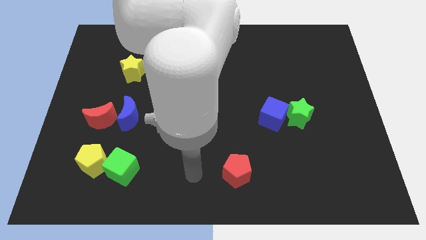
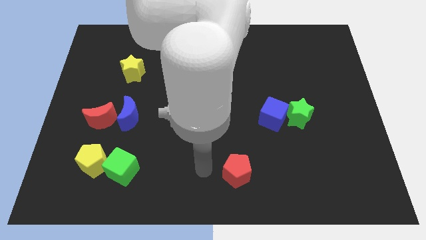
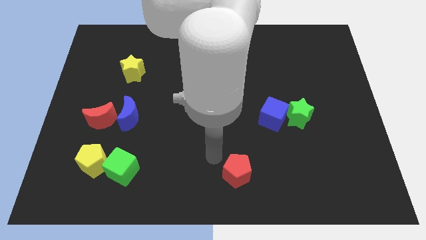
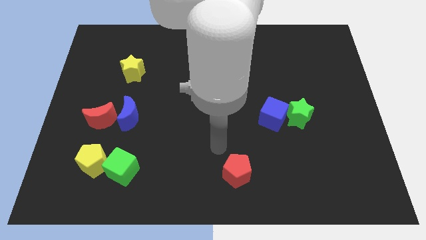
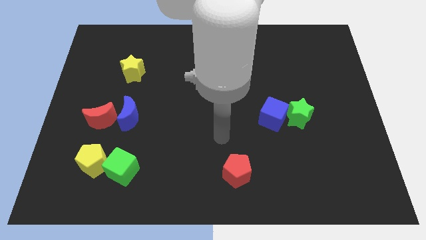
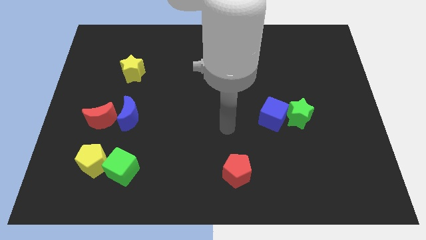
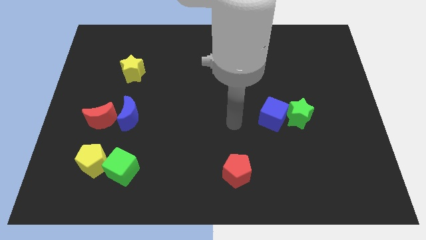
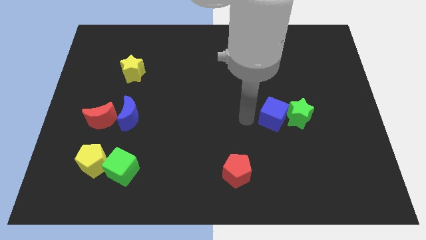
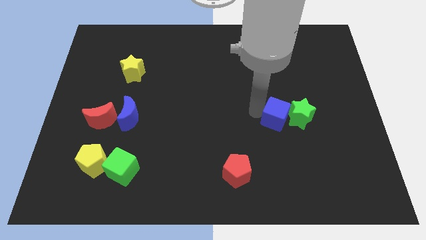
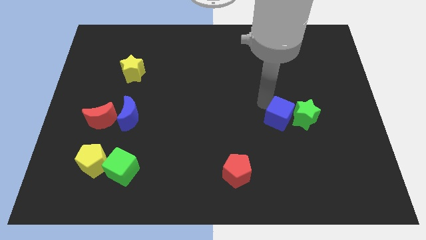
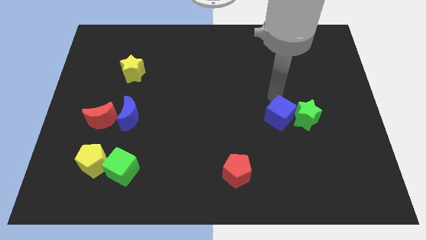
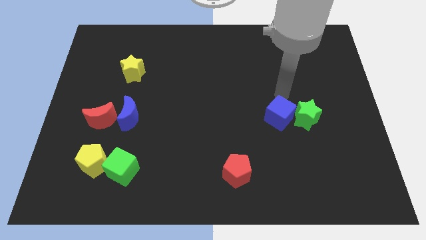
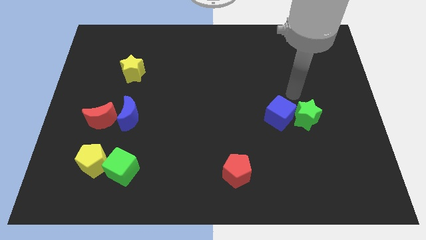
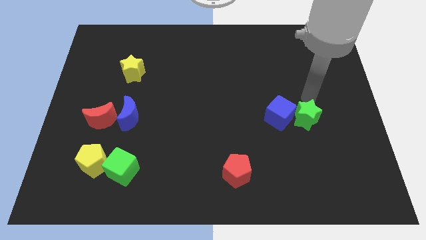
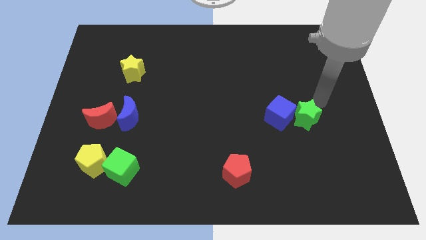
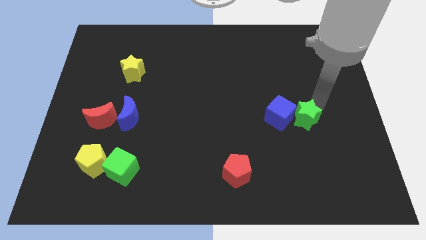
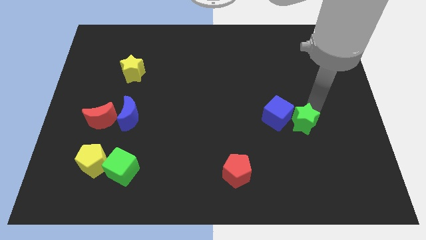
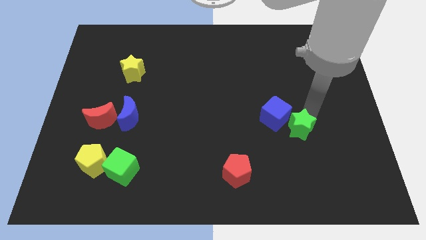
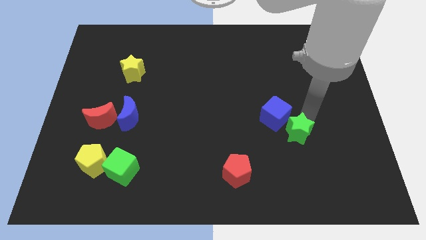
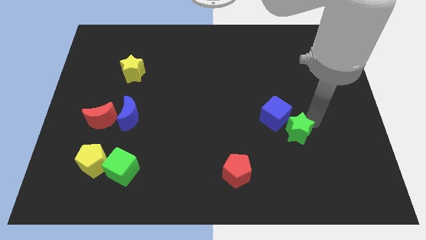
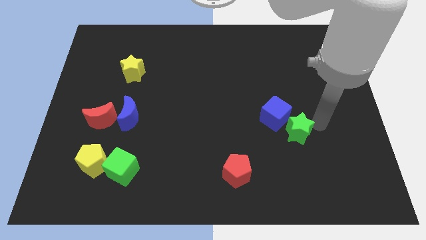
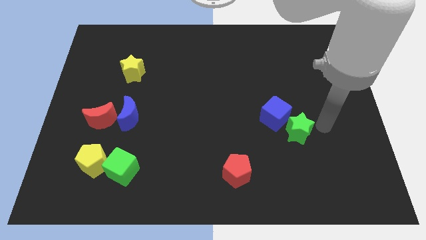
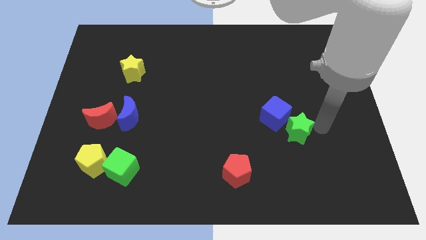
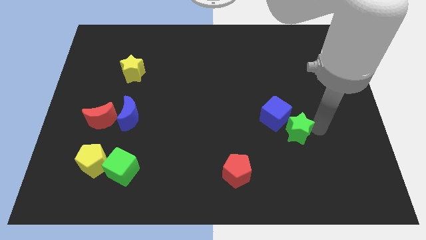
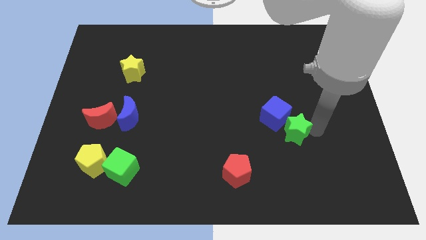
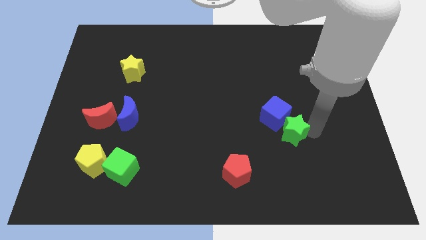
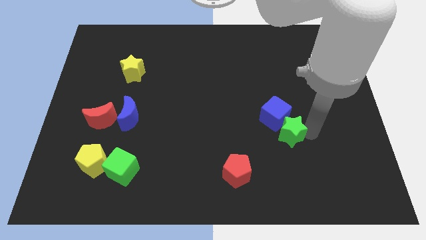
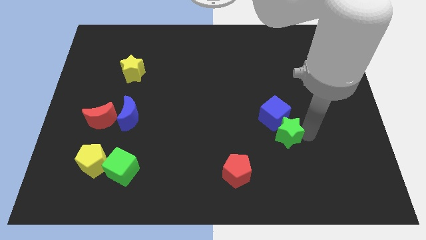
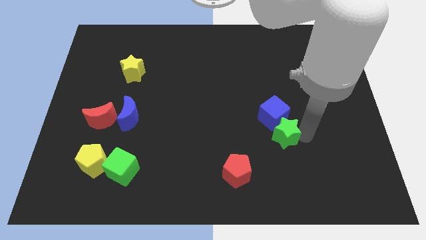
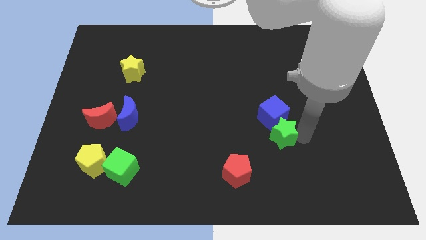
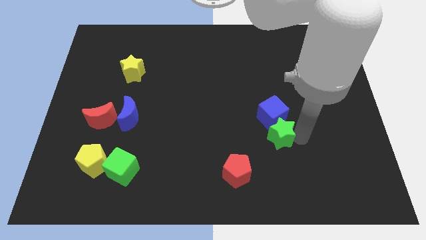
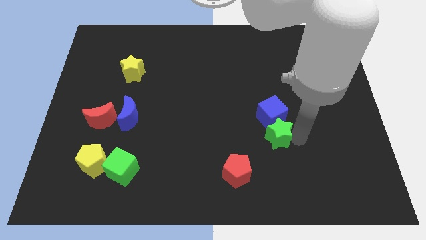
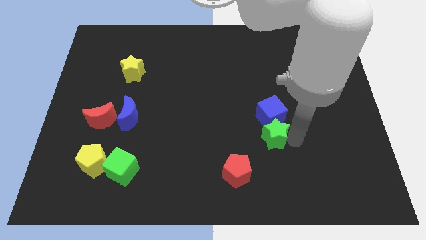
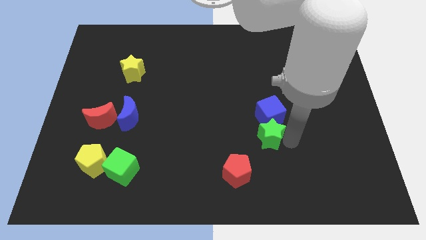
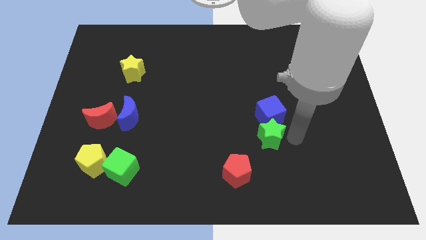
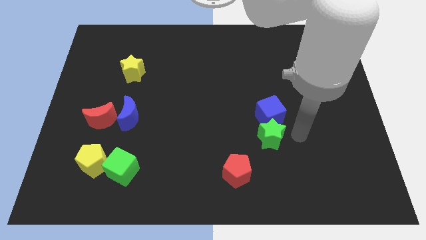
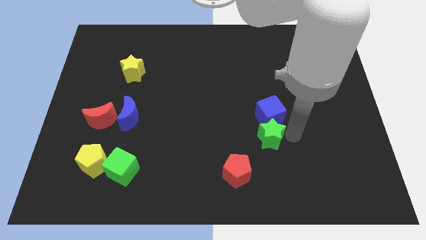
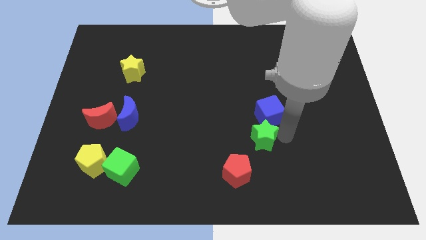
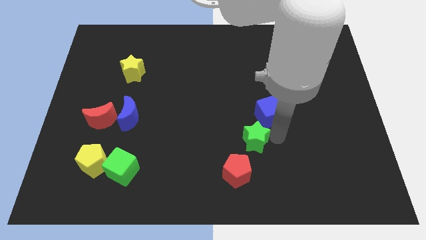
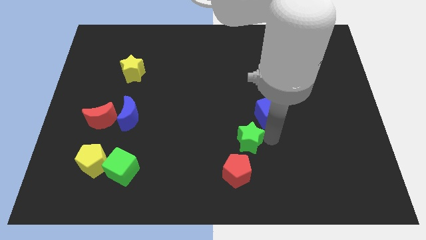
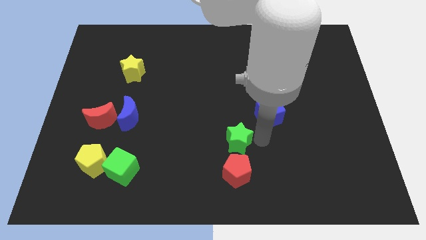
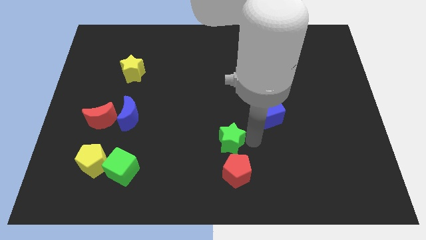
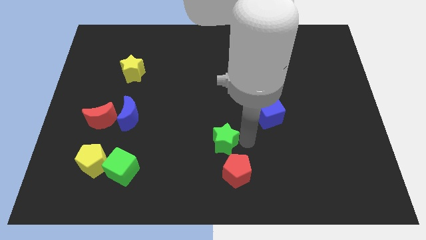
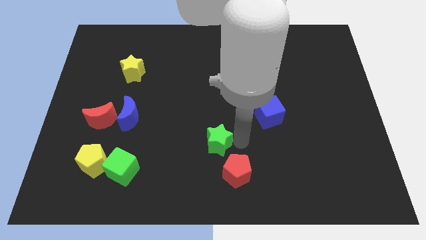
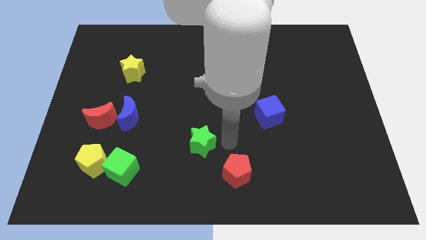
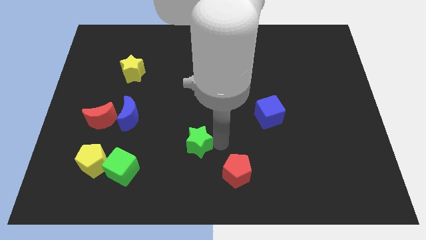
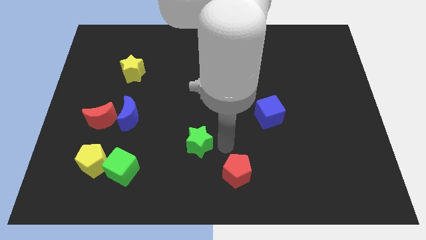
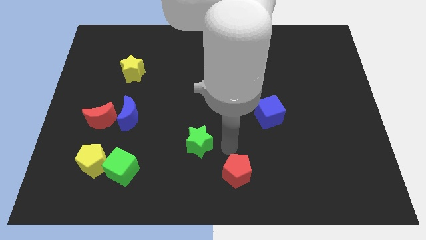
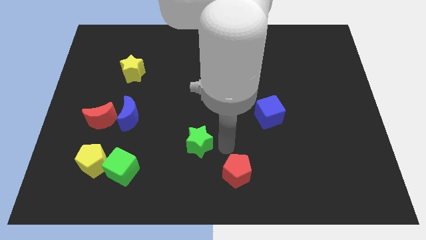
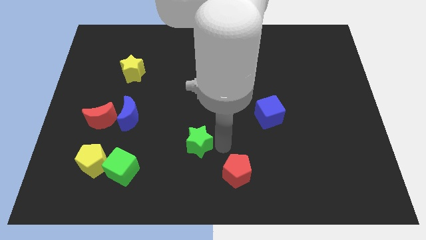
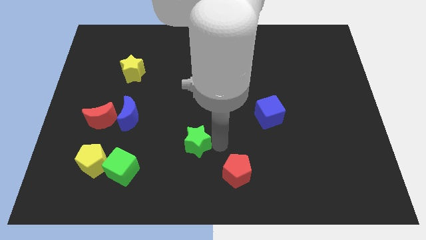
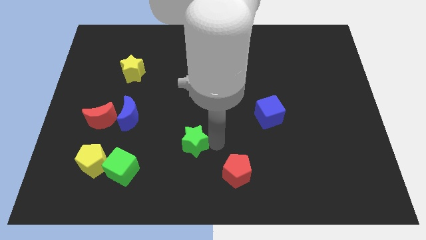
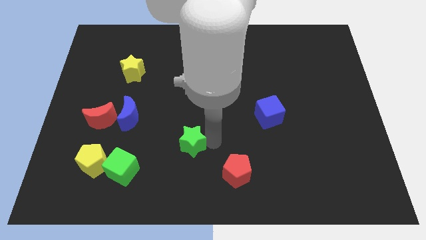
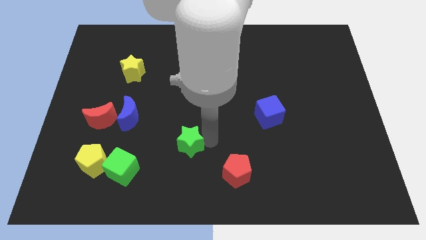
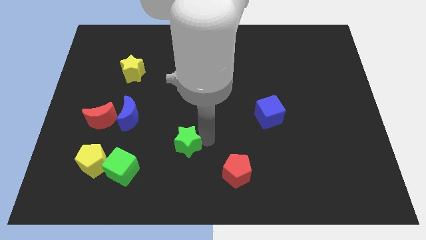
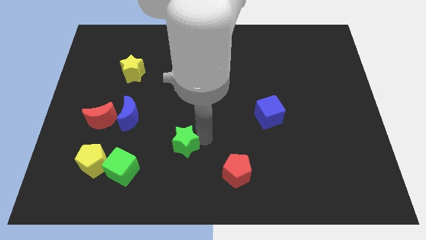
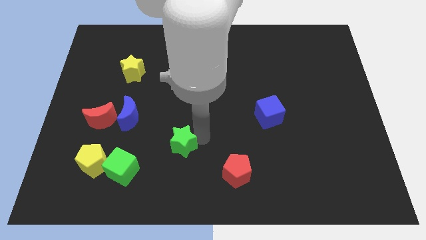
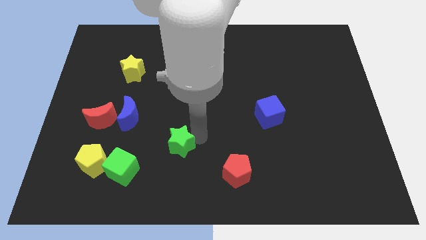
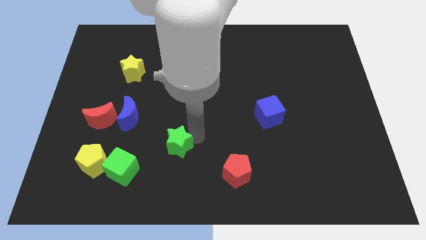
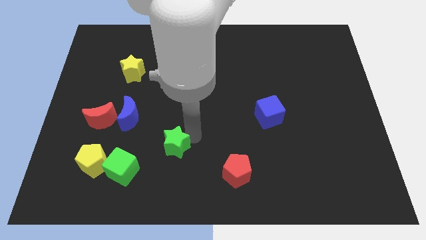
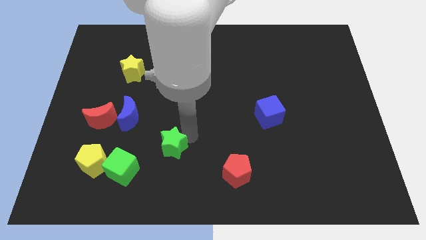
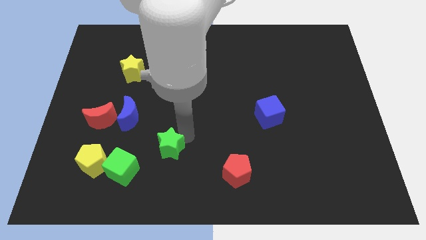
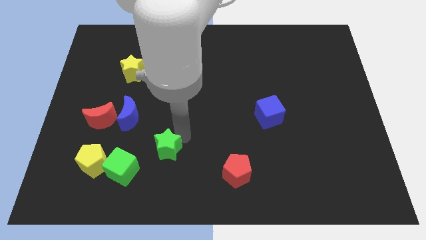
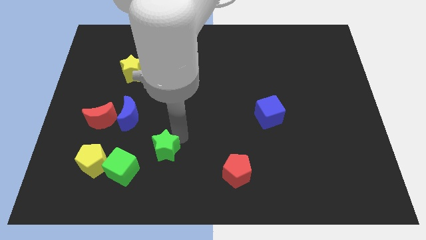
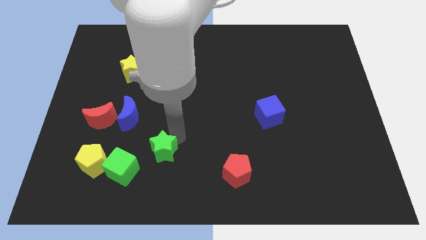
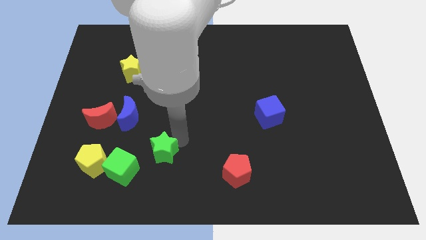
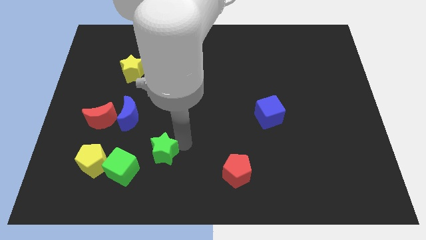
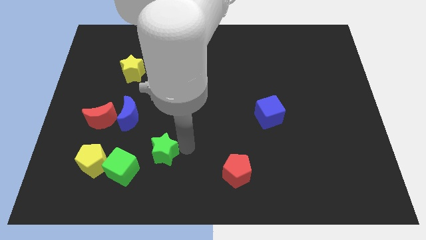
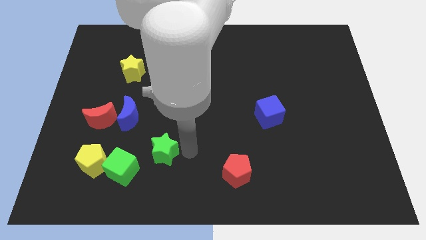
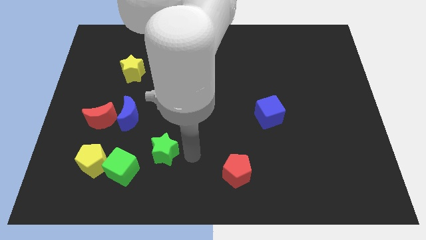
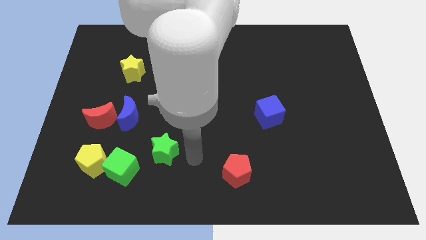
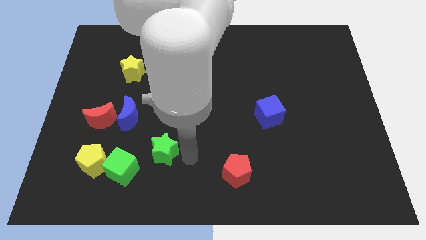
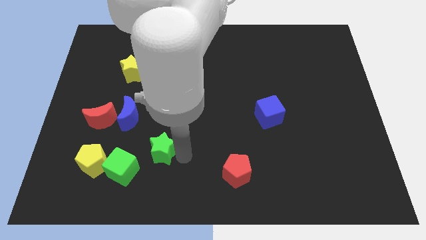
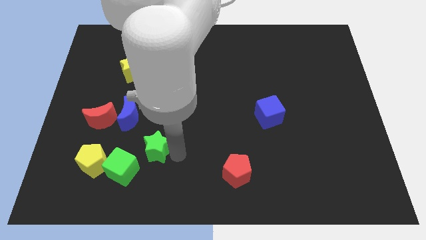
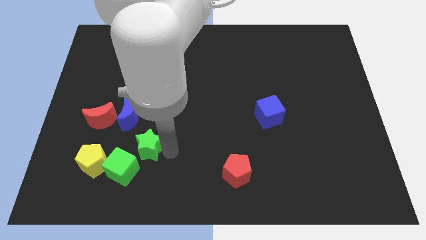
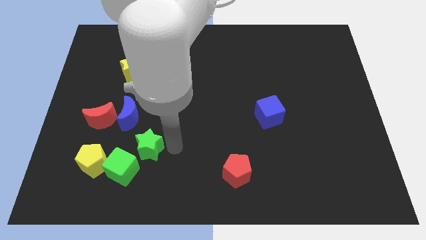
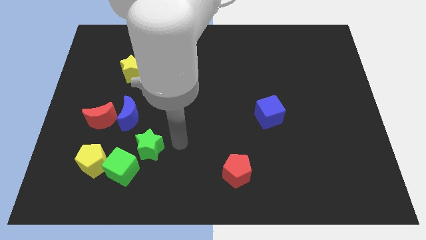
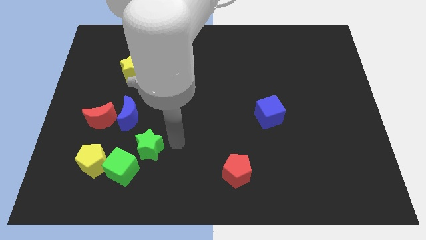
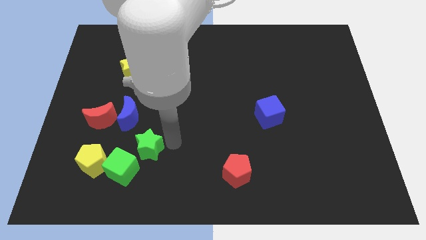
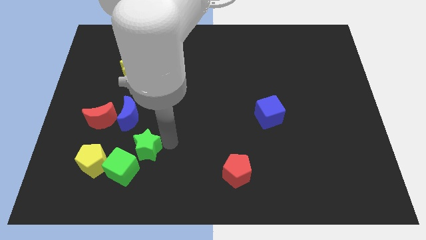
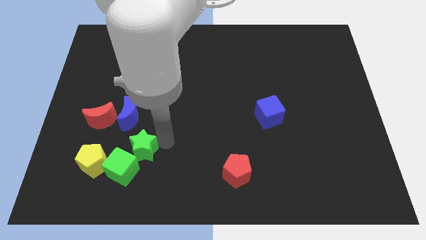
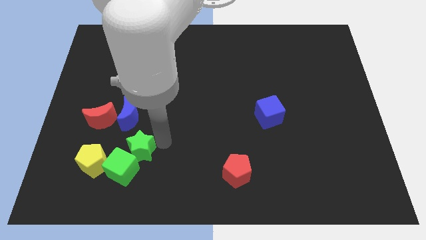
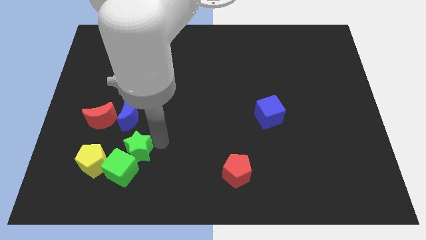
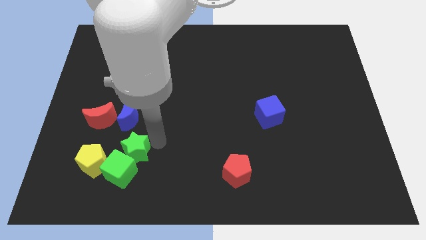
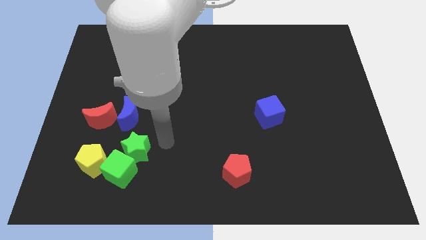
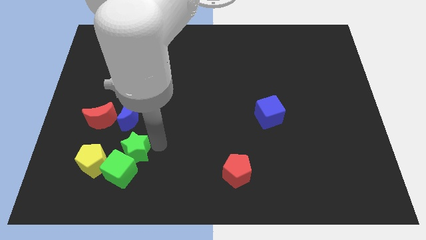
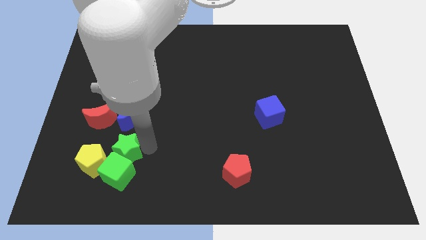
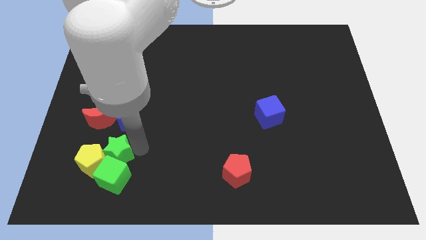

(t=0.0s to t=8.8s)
slide the green star next to the yellow pentagon
